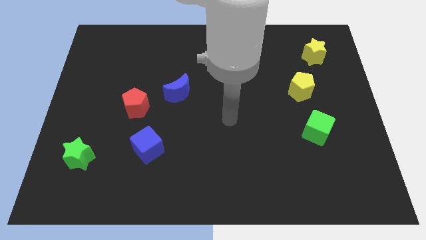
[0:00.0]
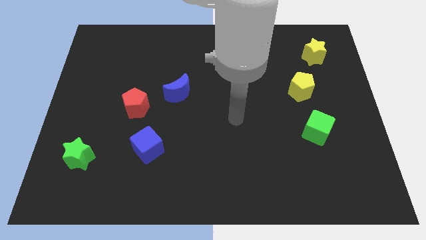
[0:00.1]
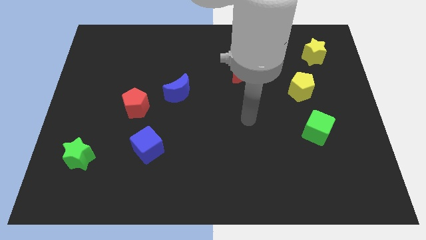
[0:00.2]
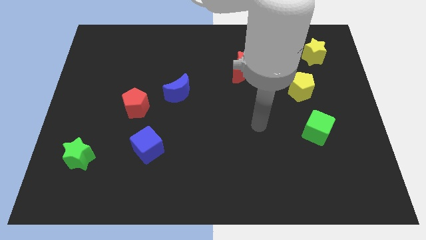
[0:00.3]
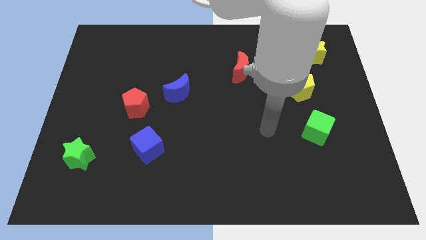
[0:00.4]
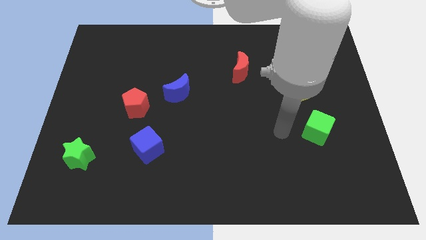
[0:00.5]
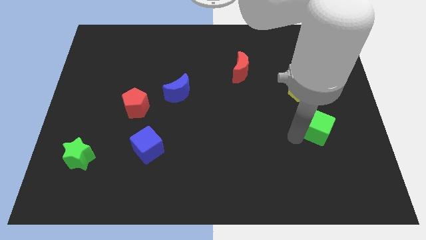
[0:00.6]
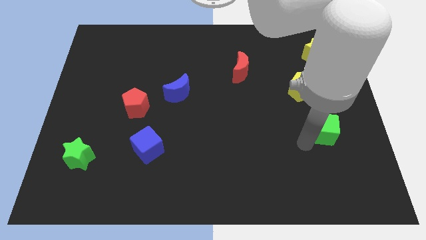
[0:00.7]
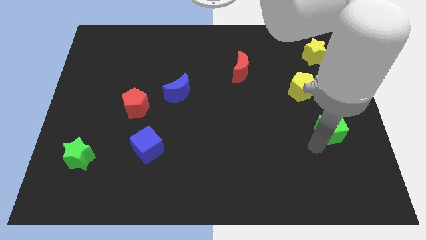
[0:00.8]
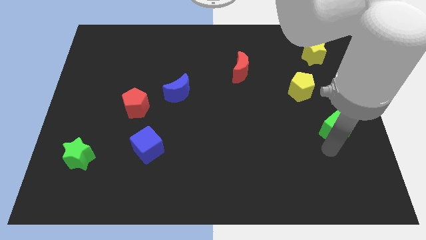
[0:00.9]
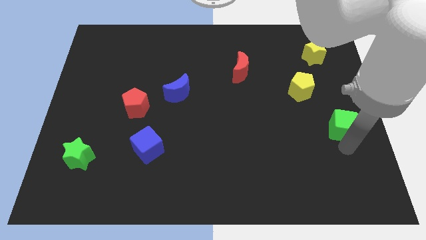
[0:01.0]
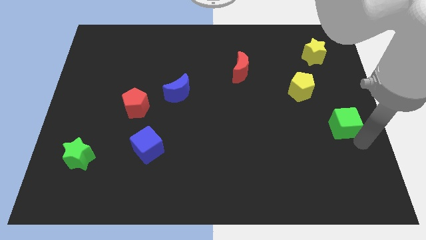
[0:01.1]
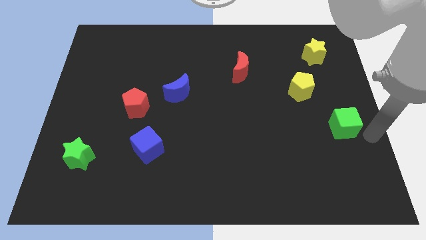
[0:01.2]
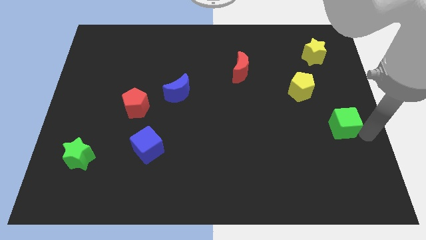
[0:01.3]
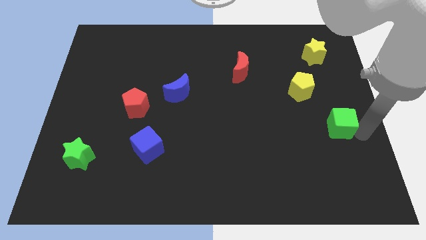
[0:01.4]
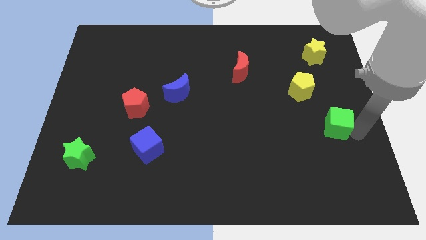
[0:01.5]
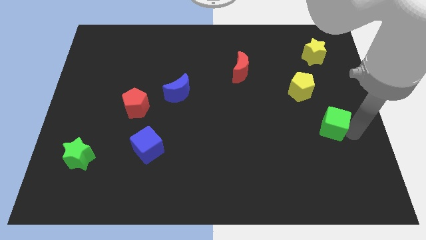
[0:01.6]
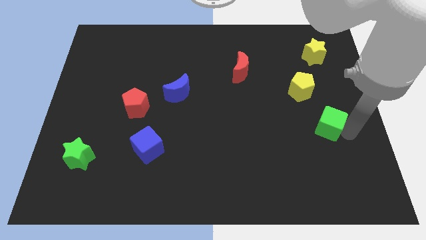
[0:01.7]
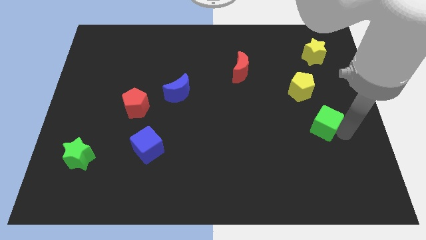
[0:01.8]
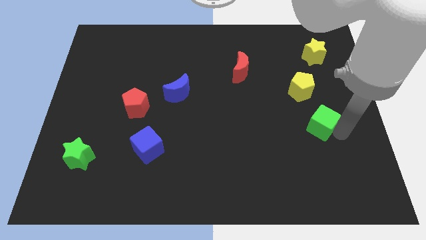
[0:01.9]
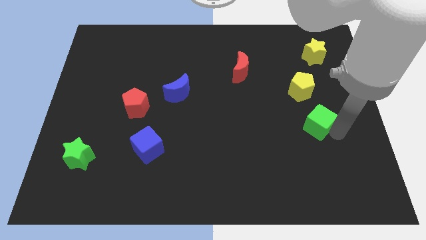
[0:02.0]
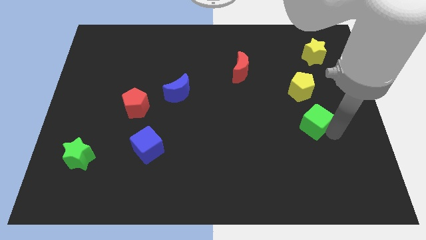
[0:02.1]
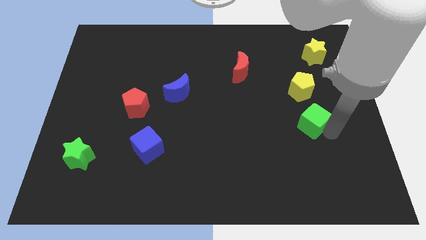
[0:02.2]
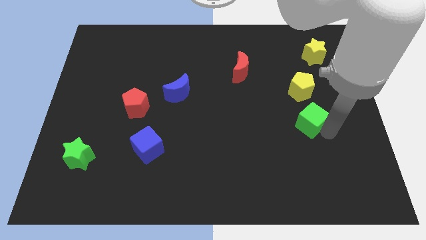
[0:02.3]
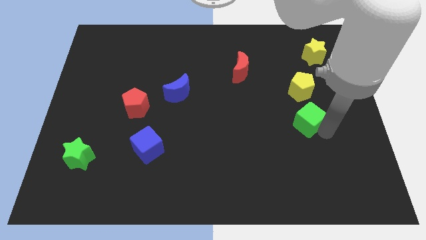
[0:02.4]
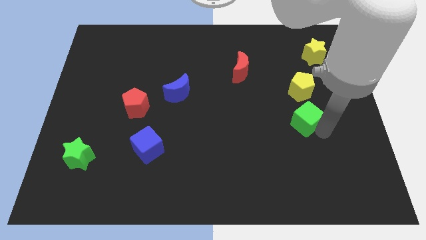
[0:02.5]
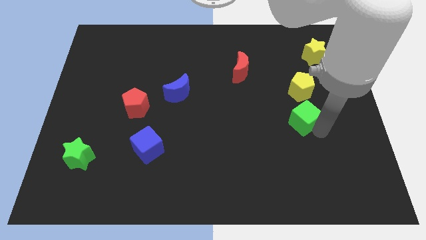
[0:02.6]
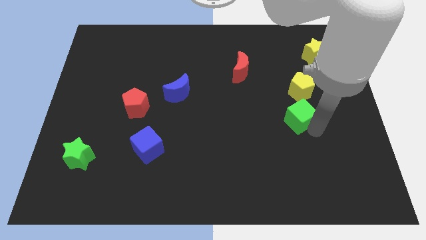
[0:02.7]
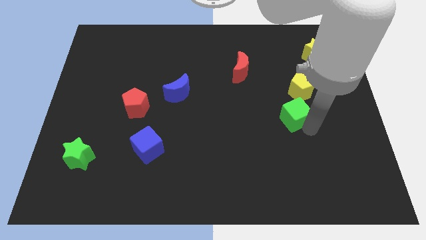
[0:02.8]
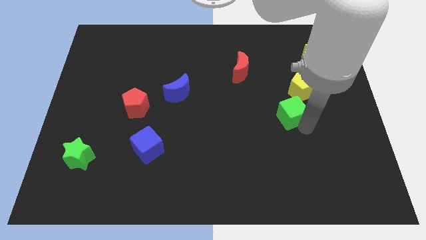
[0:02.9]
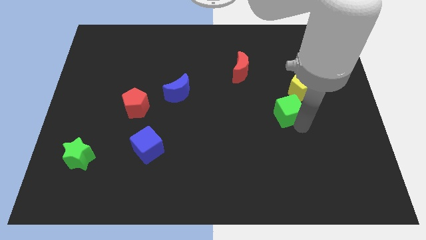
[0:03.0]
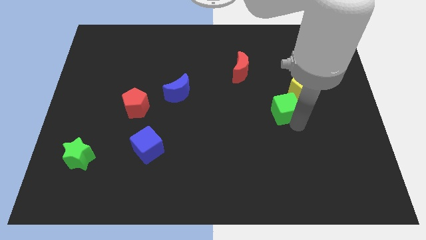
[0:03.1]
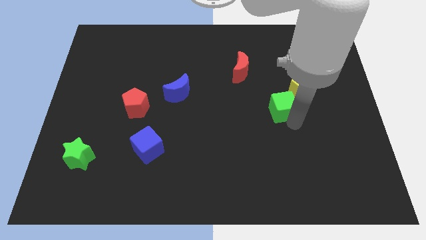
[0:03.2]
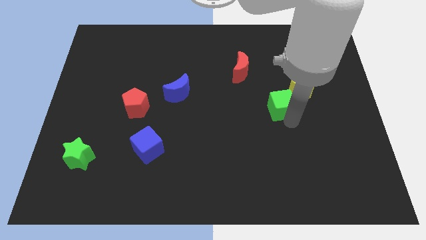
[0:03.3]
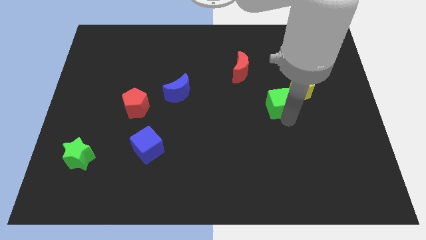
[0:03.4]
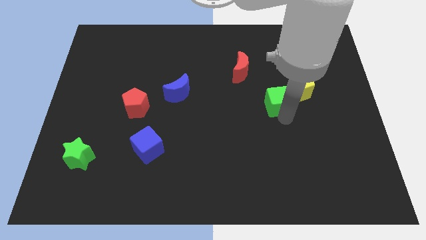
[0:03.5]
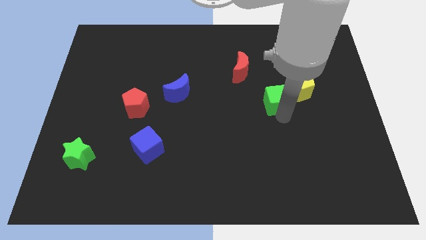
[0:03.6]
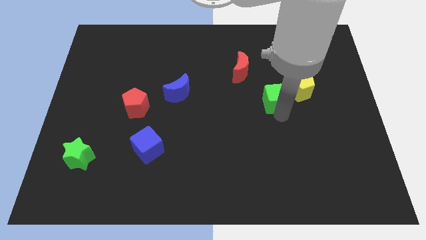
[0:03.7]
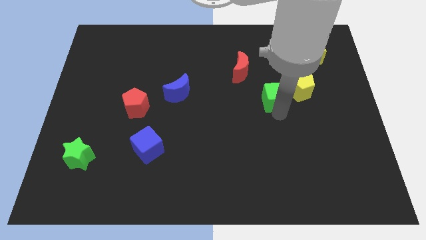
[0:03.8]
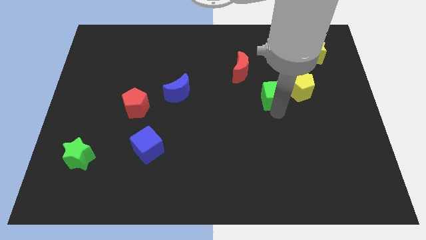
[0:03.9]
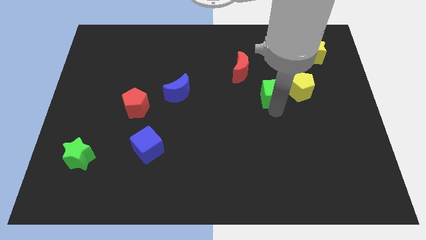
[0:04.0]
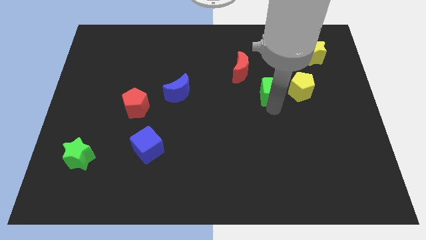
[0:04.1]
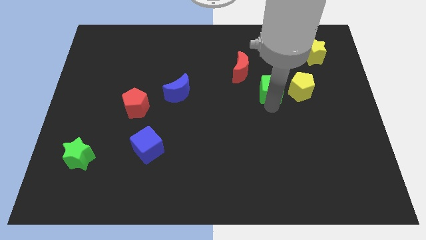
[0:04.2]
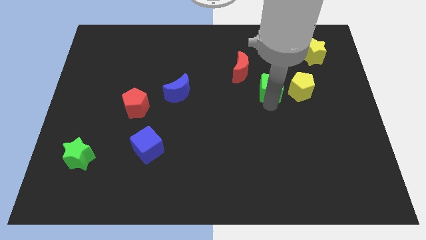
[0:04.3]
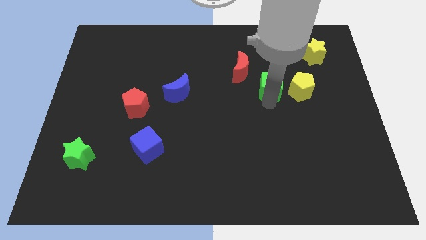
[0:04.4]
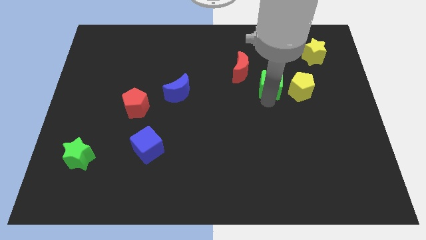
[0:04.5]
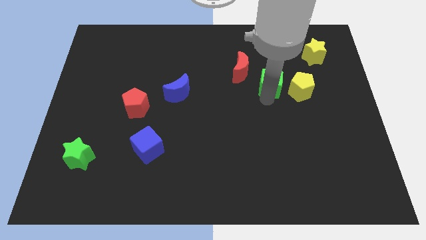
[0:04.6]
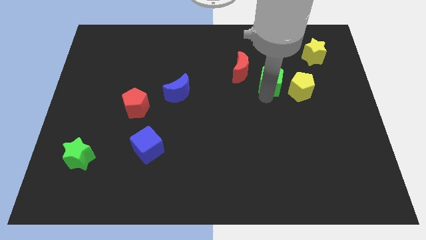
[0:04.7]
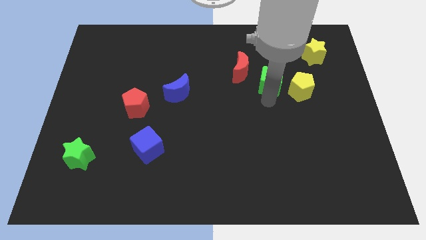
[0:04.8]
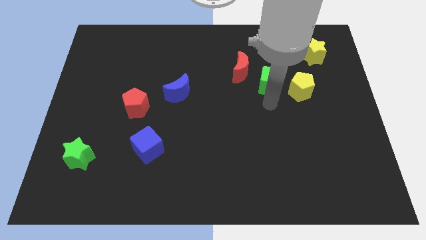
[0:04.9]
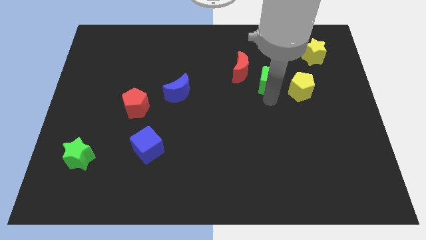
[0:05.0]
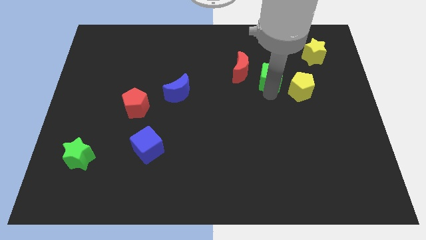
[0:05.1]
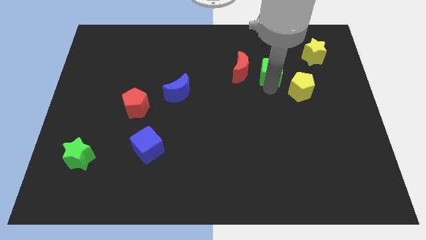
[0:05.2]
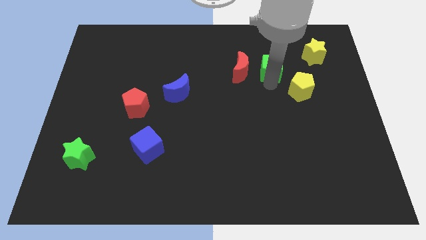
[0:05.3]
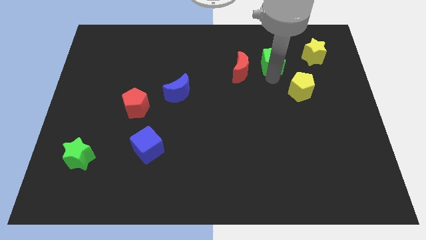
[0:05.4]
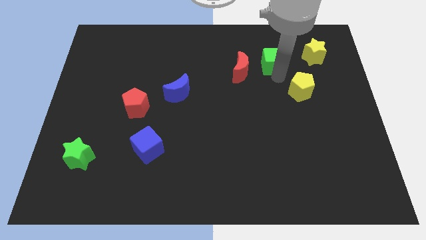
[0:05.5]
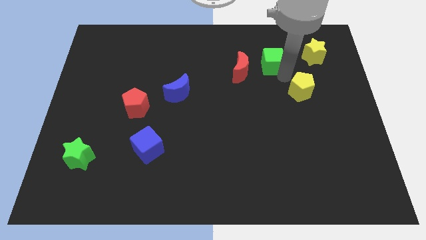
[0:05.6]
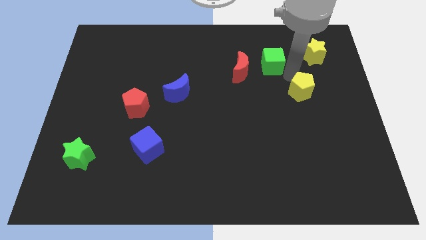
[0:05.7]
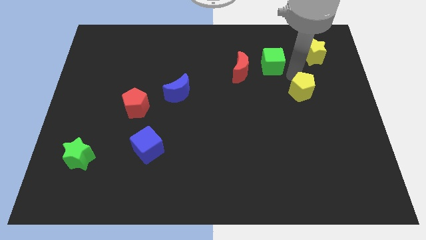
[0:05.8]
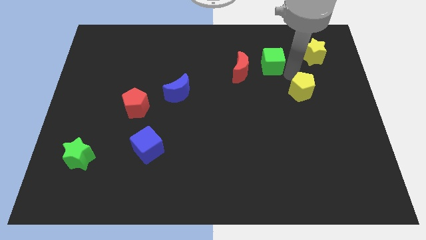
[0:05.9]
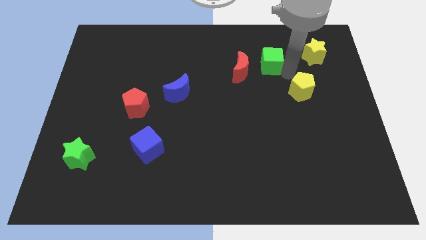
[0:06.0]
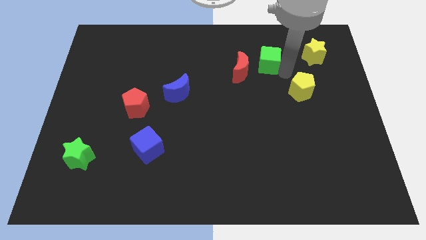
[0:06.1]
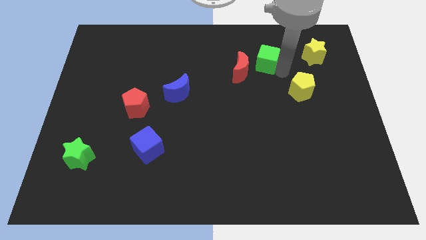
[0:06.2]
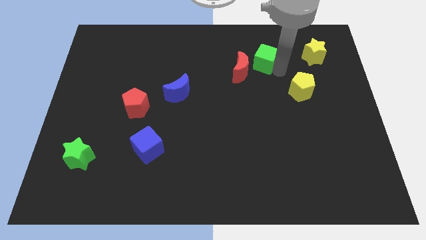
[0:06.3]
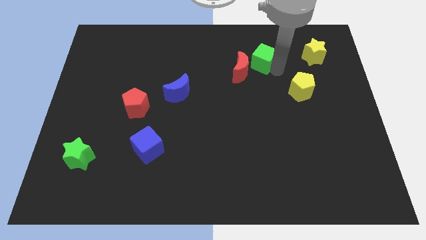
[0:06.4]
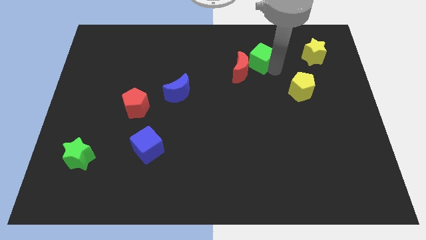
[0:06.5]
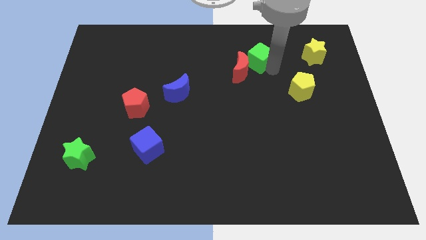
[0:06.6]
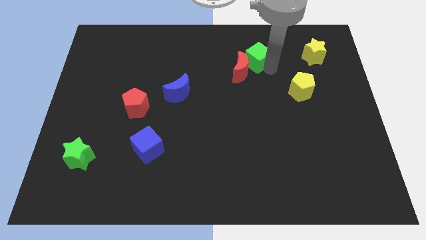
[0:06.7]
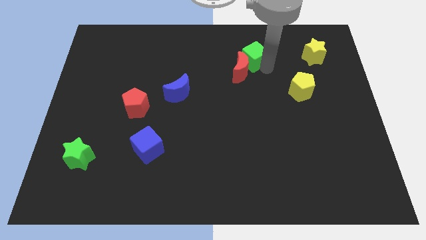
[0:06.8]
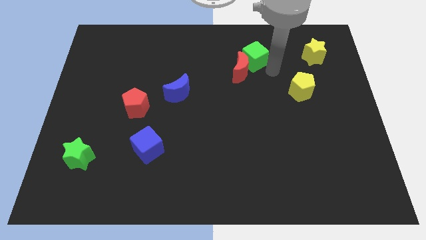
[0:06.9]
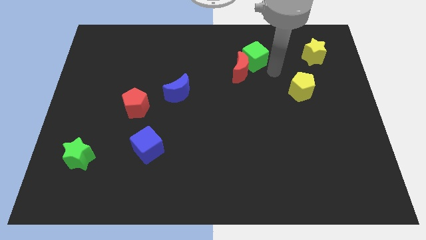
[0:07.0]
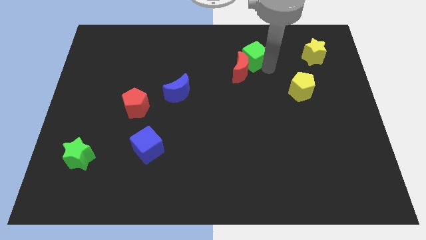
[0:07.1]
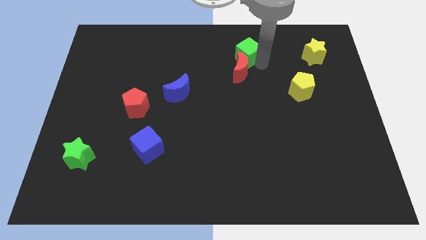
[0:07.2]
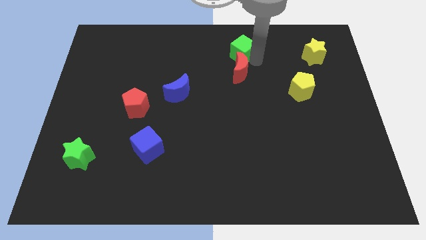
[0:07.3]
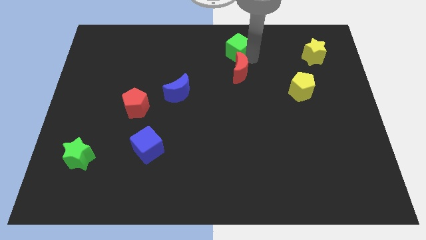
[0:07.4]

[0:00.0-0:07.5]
push the green cube to the towards your base
